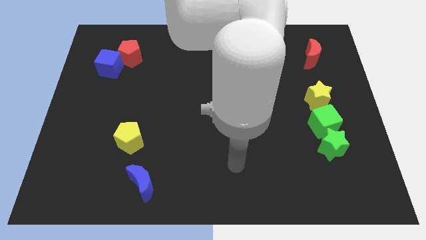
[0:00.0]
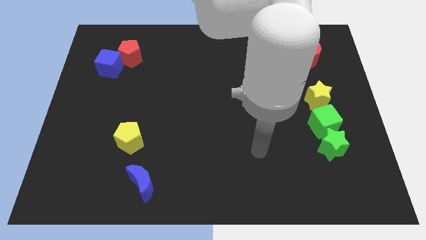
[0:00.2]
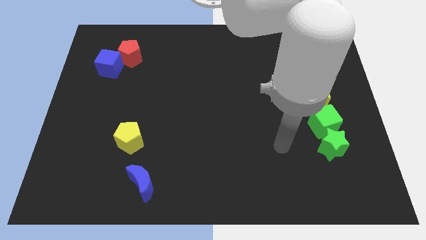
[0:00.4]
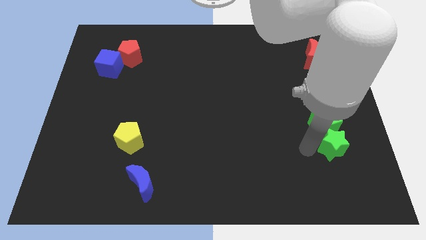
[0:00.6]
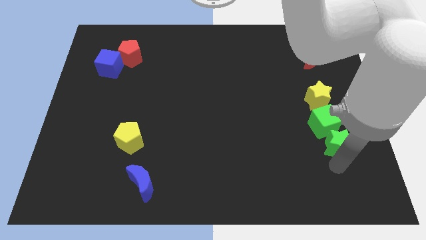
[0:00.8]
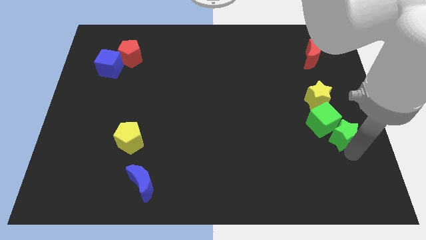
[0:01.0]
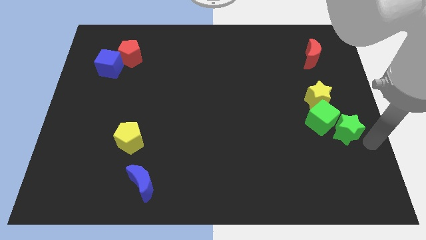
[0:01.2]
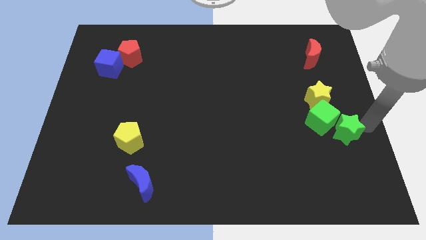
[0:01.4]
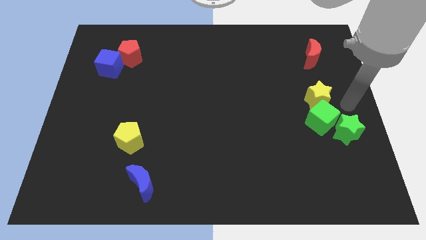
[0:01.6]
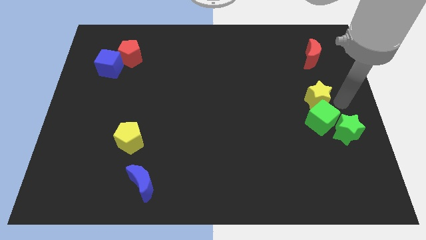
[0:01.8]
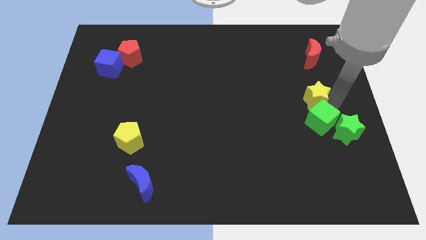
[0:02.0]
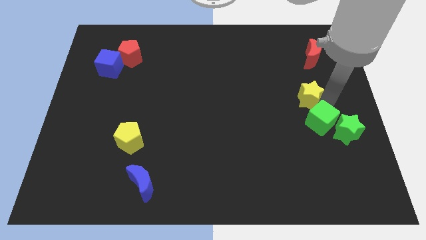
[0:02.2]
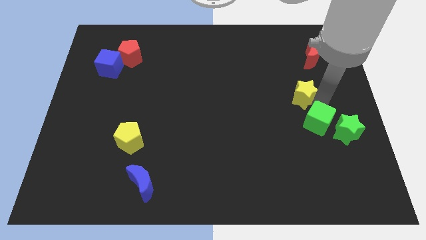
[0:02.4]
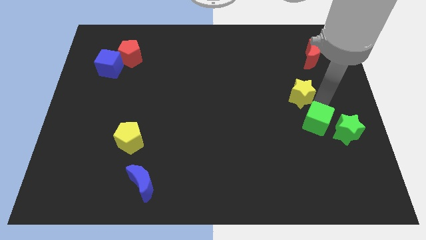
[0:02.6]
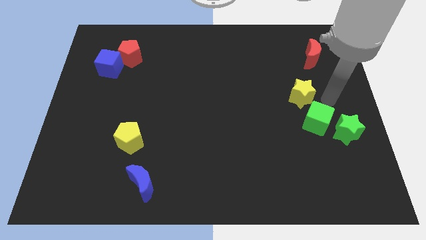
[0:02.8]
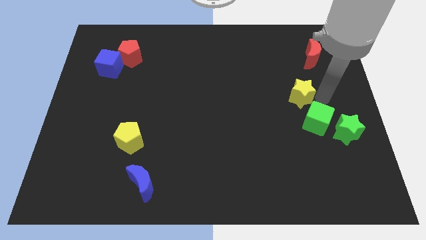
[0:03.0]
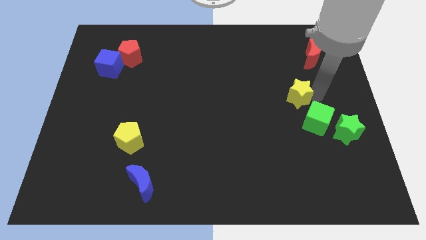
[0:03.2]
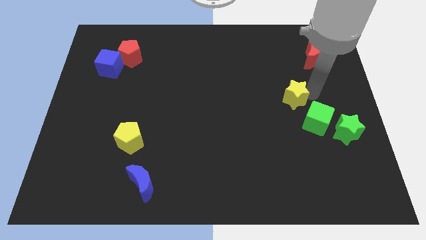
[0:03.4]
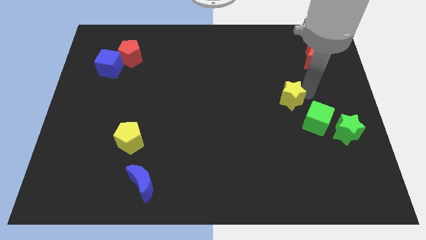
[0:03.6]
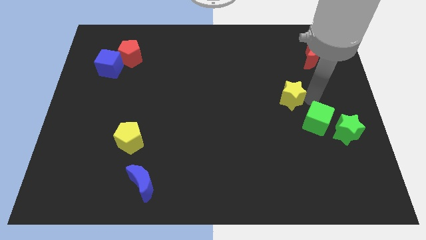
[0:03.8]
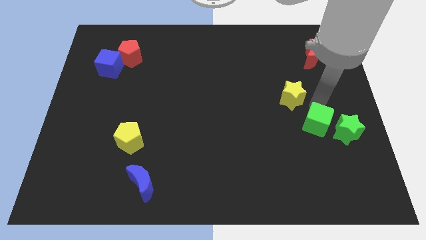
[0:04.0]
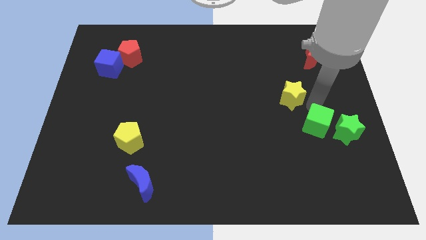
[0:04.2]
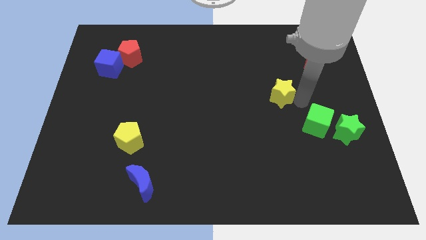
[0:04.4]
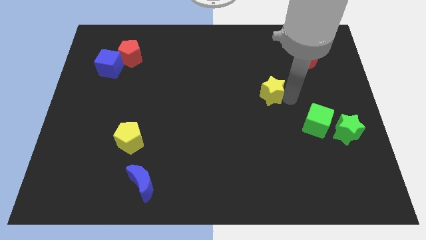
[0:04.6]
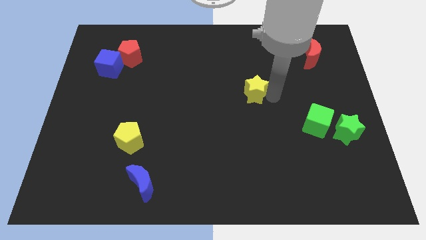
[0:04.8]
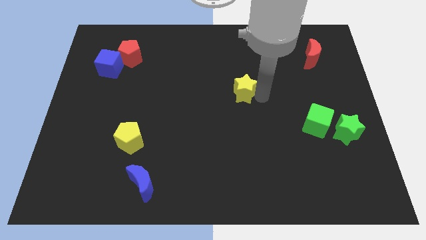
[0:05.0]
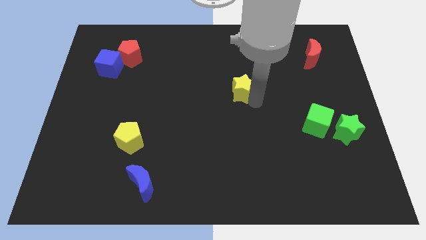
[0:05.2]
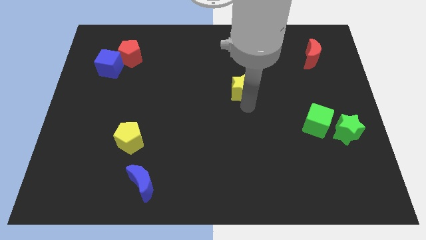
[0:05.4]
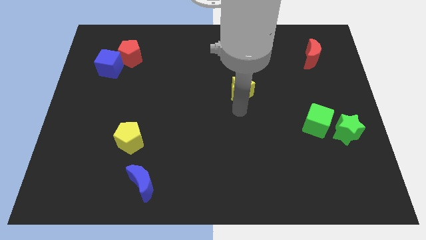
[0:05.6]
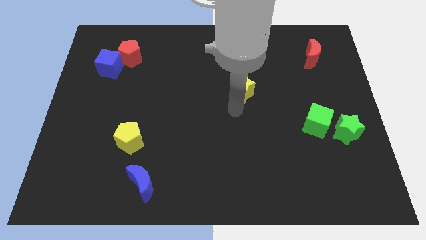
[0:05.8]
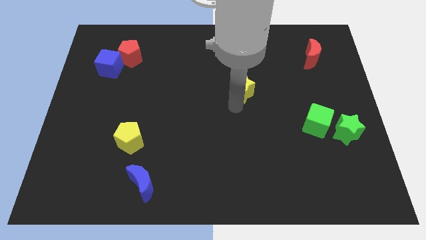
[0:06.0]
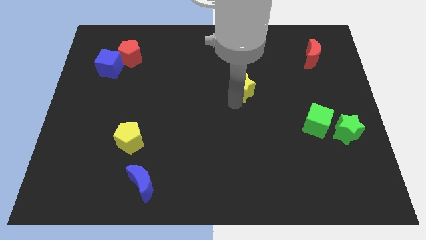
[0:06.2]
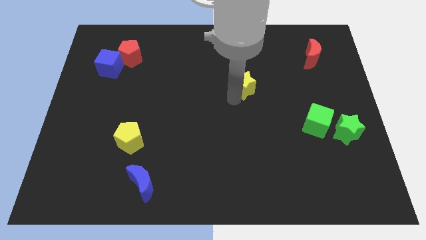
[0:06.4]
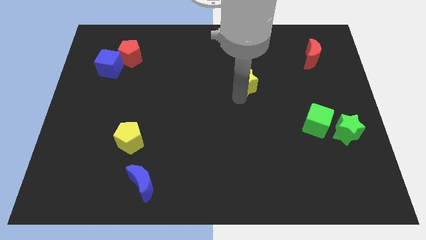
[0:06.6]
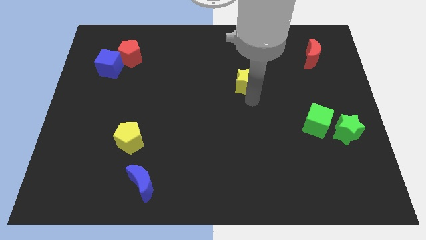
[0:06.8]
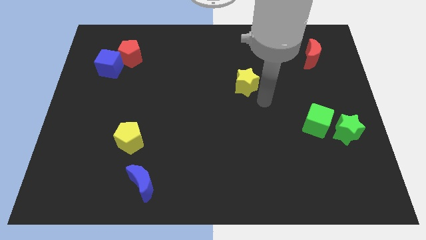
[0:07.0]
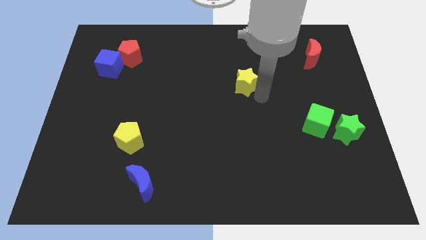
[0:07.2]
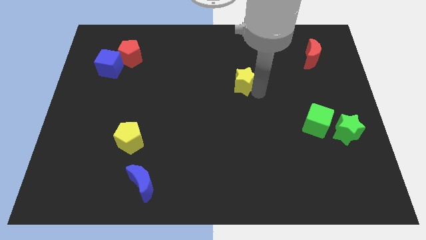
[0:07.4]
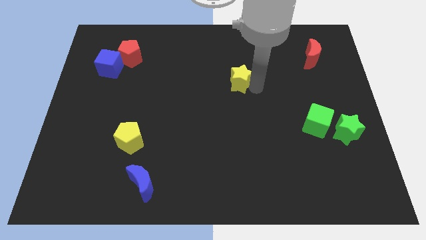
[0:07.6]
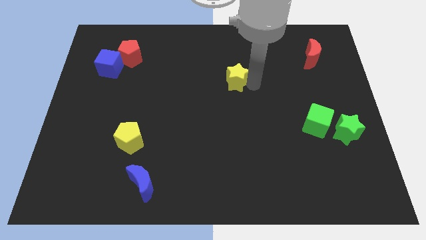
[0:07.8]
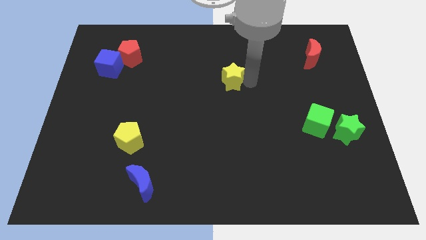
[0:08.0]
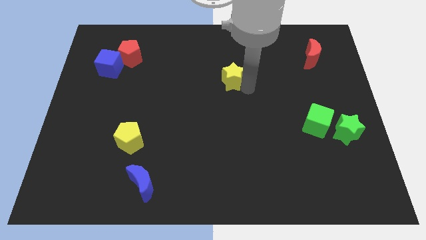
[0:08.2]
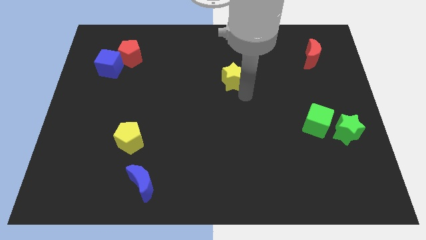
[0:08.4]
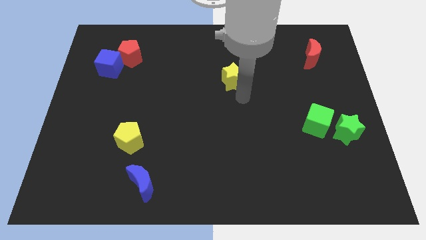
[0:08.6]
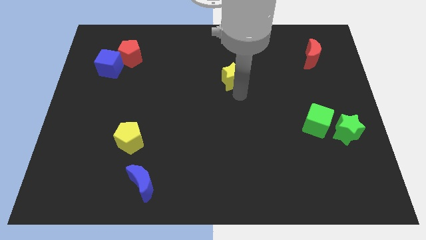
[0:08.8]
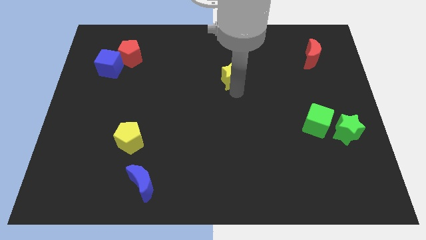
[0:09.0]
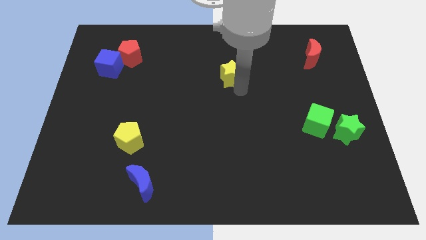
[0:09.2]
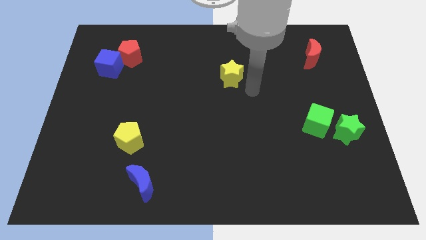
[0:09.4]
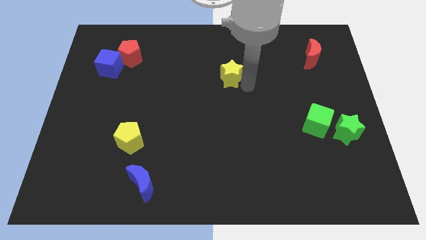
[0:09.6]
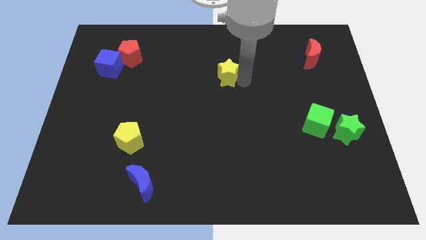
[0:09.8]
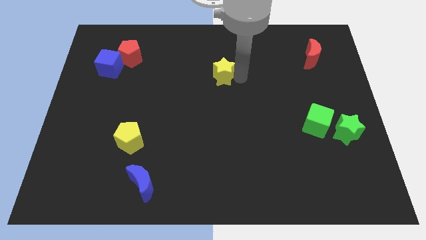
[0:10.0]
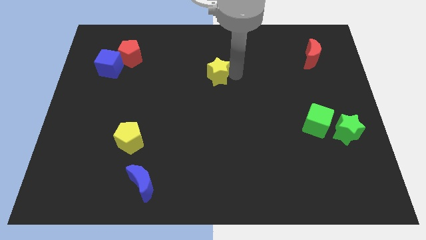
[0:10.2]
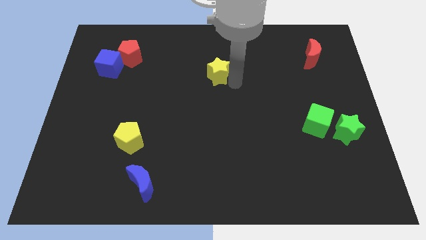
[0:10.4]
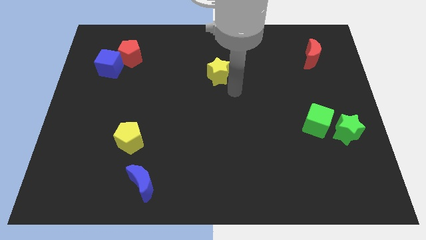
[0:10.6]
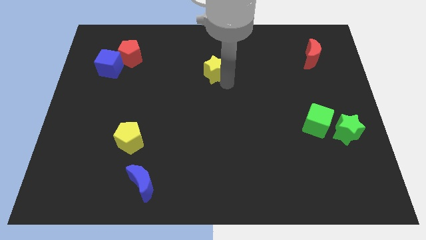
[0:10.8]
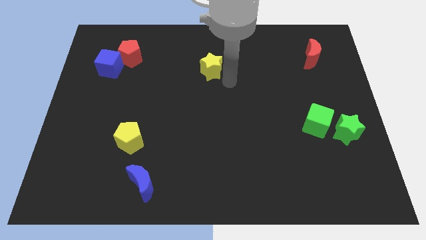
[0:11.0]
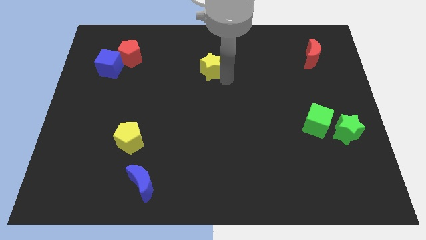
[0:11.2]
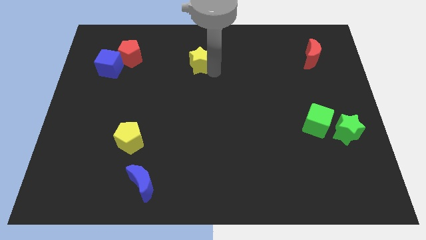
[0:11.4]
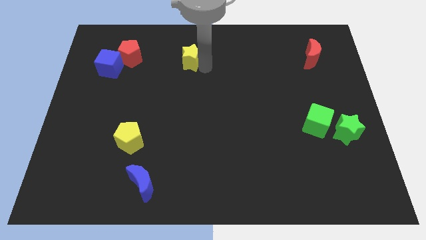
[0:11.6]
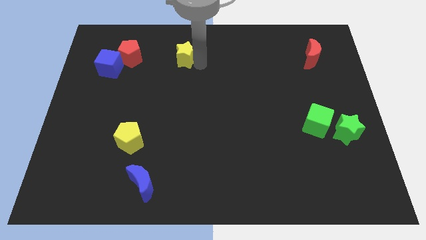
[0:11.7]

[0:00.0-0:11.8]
move the yellow star to the right side of the red pentagon

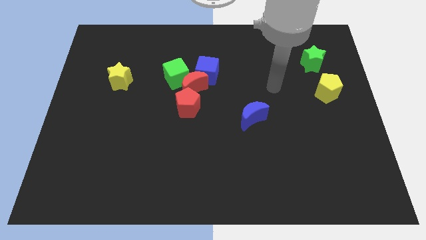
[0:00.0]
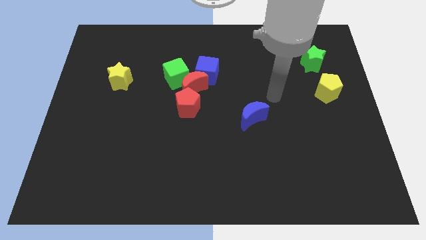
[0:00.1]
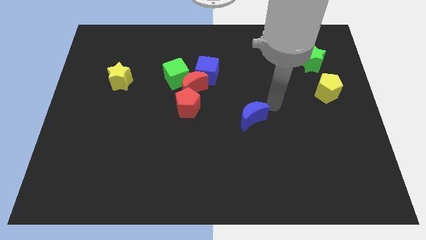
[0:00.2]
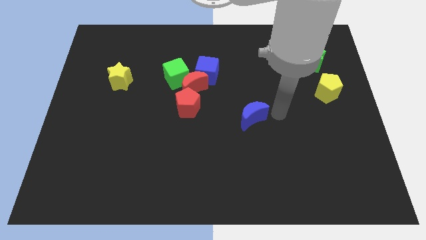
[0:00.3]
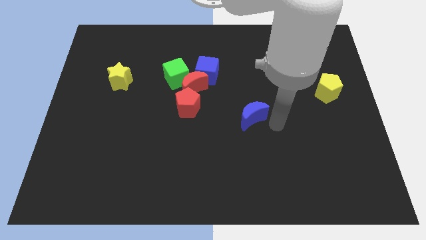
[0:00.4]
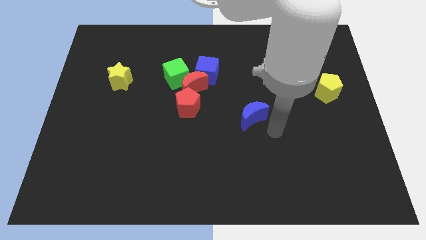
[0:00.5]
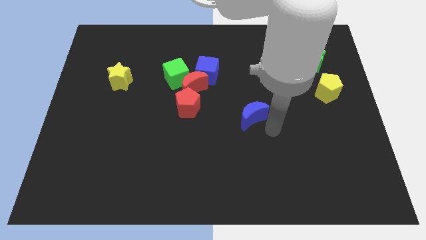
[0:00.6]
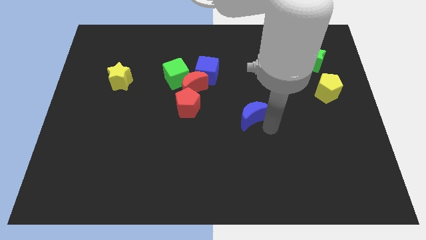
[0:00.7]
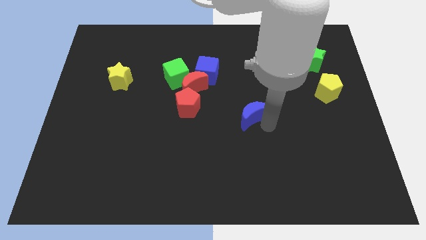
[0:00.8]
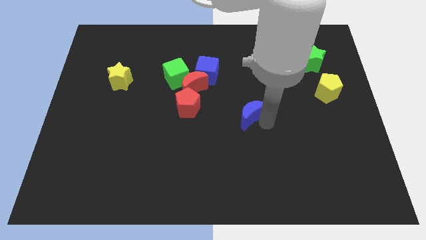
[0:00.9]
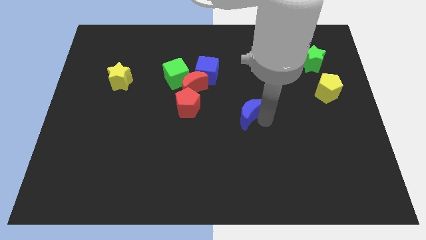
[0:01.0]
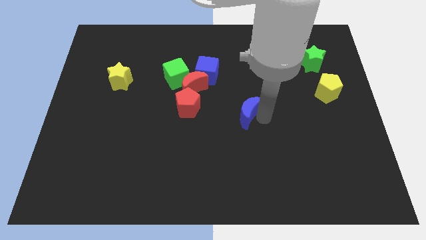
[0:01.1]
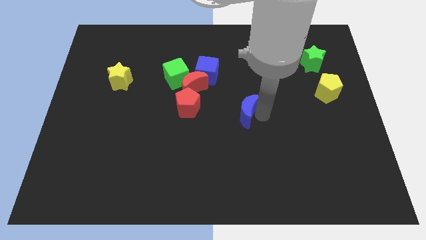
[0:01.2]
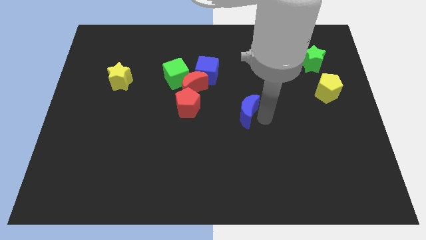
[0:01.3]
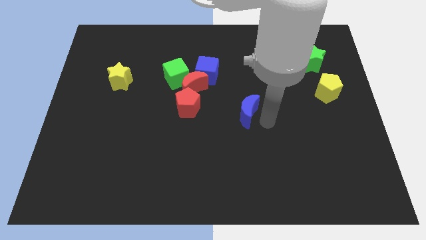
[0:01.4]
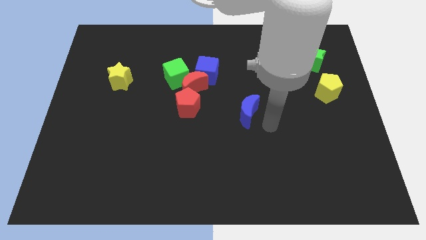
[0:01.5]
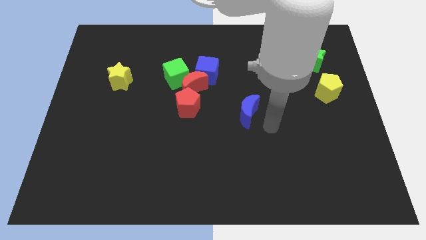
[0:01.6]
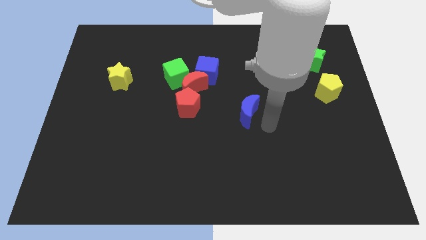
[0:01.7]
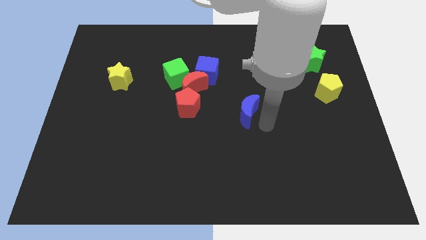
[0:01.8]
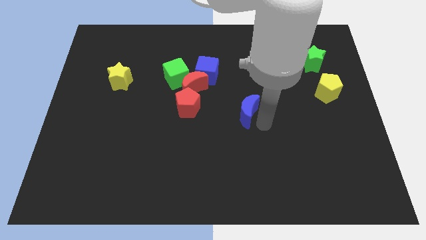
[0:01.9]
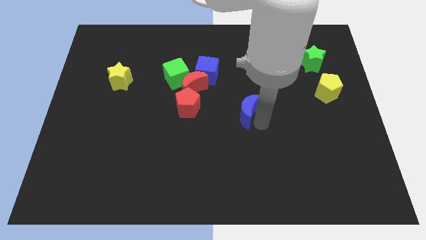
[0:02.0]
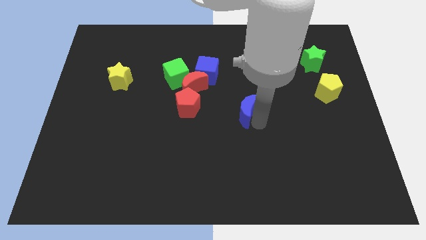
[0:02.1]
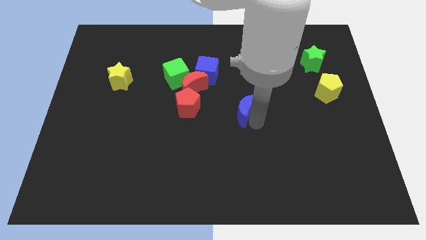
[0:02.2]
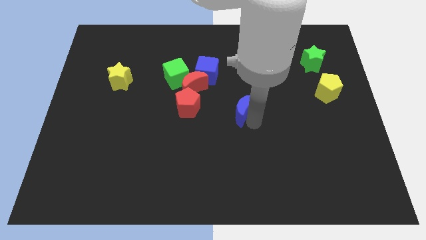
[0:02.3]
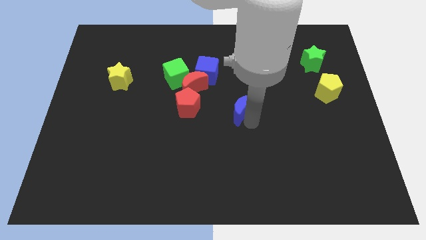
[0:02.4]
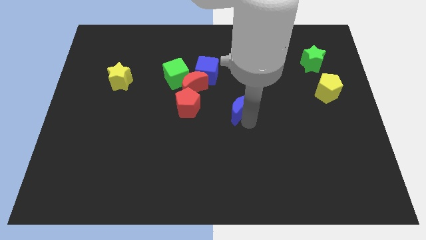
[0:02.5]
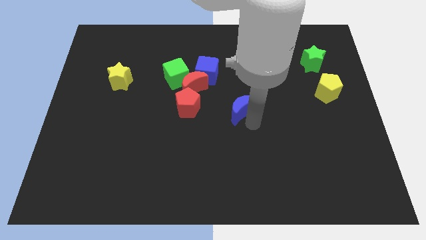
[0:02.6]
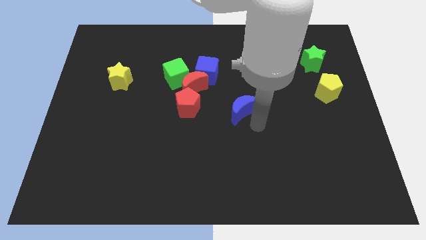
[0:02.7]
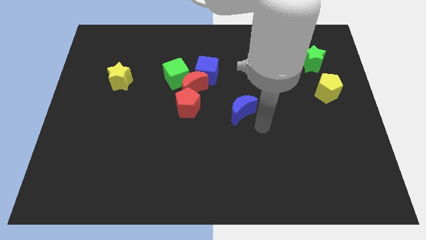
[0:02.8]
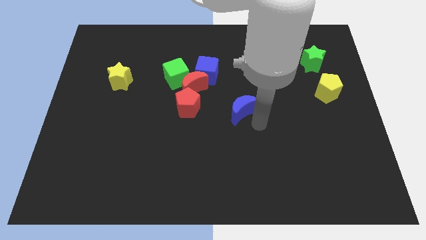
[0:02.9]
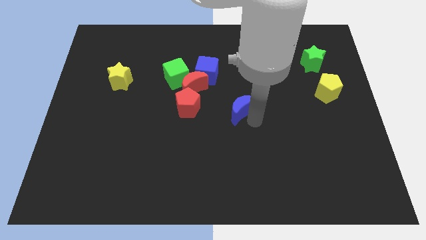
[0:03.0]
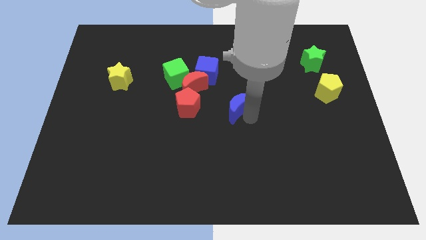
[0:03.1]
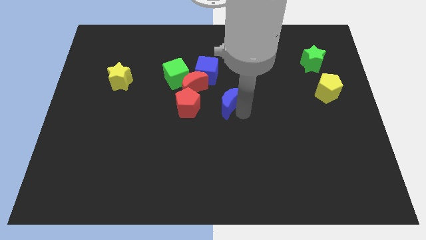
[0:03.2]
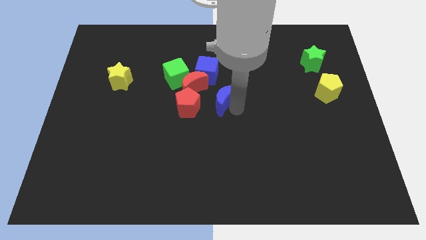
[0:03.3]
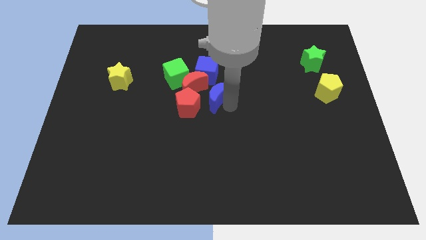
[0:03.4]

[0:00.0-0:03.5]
move the blue moon diagonally up and to the right of the red pentagon
